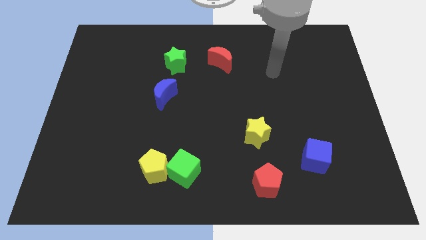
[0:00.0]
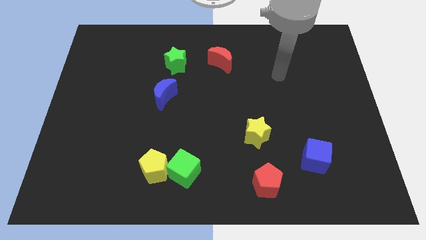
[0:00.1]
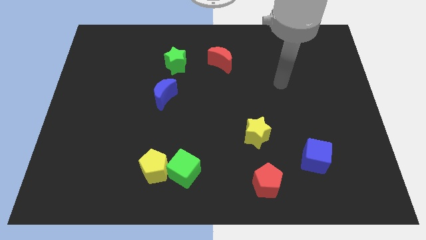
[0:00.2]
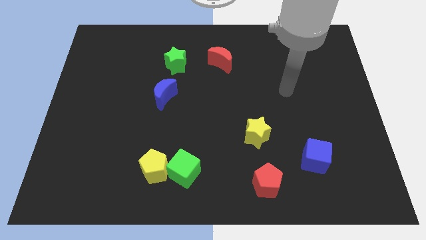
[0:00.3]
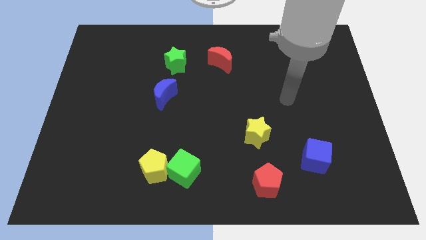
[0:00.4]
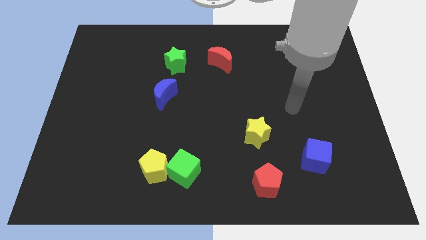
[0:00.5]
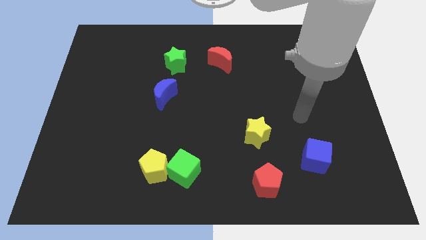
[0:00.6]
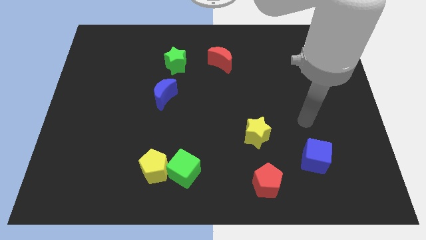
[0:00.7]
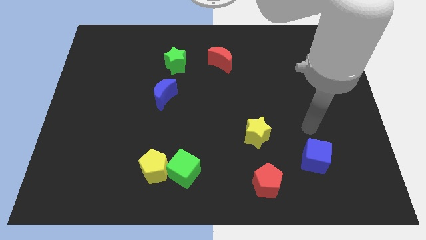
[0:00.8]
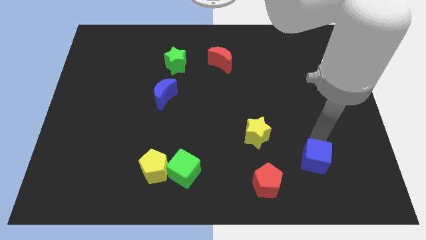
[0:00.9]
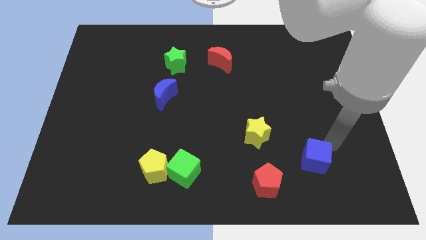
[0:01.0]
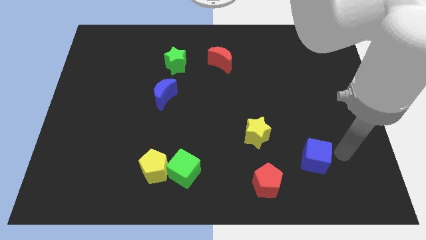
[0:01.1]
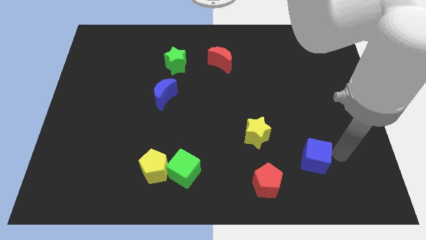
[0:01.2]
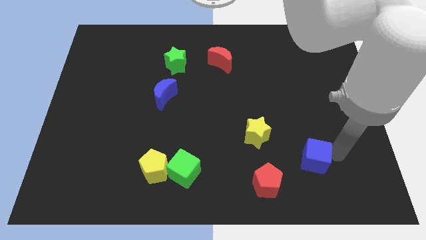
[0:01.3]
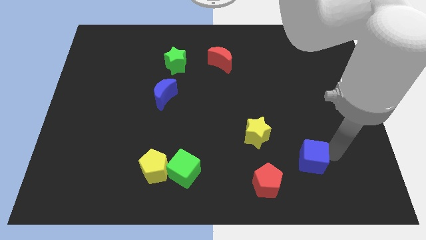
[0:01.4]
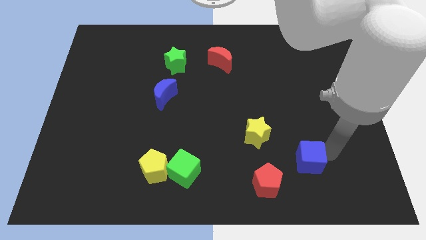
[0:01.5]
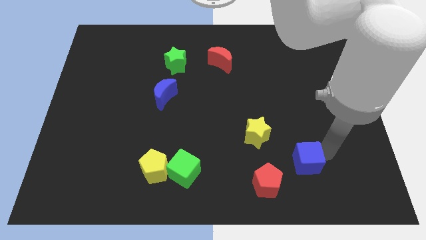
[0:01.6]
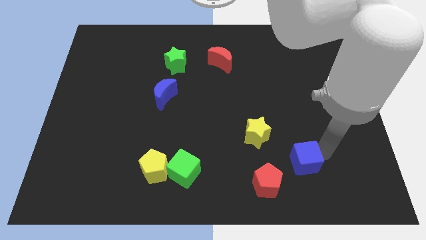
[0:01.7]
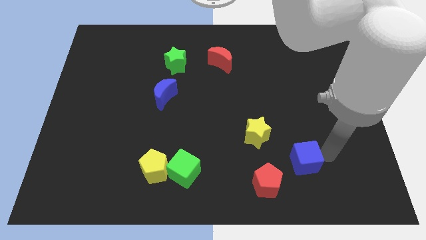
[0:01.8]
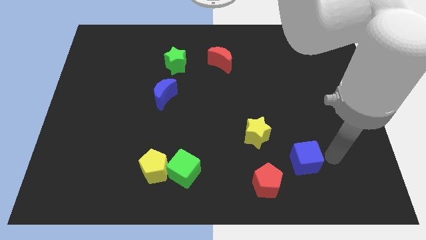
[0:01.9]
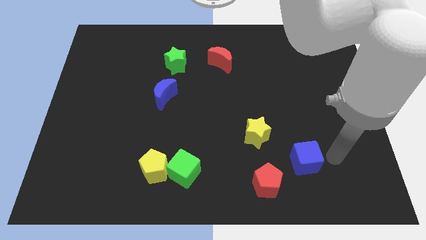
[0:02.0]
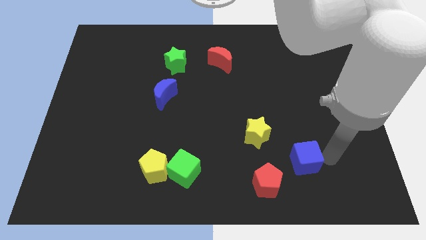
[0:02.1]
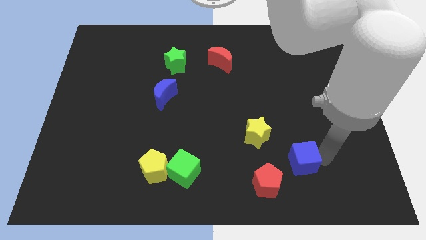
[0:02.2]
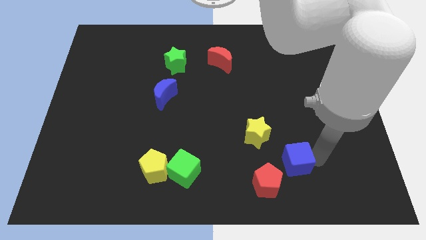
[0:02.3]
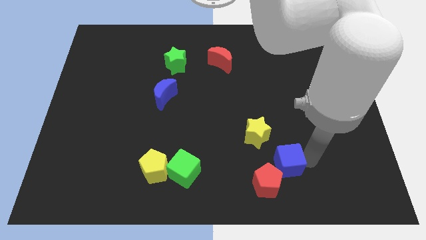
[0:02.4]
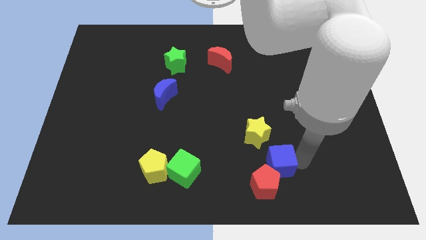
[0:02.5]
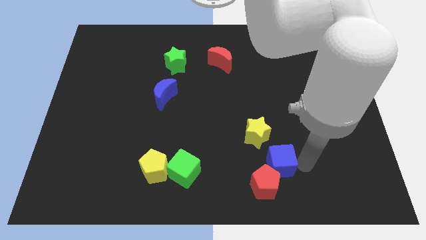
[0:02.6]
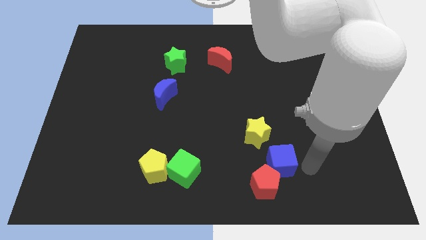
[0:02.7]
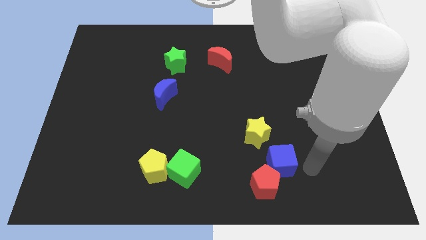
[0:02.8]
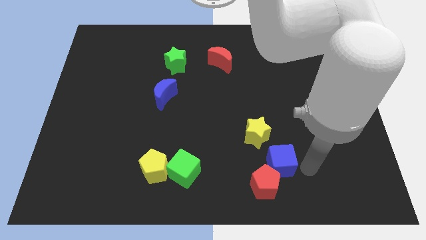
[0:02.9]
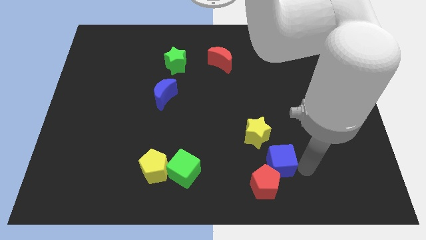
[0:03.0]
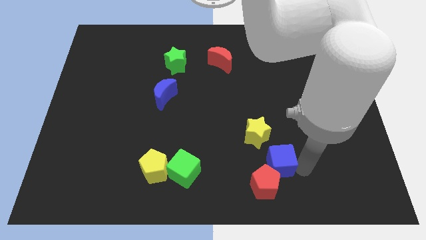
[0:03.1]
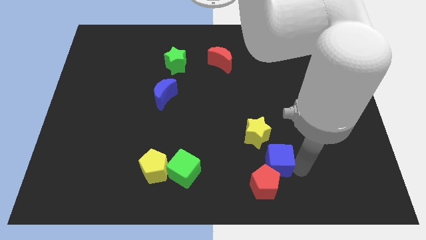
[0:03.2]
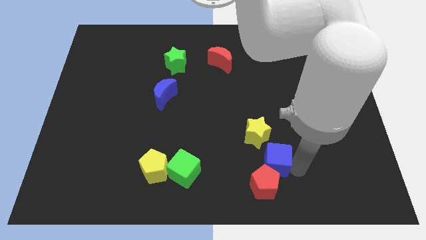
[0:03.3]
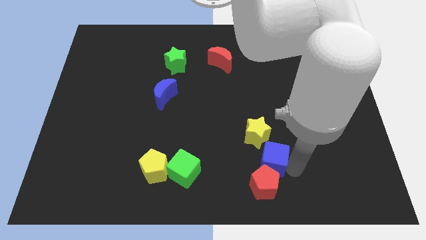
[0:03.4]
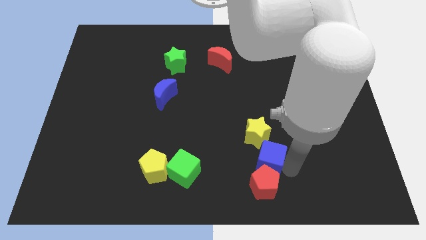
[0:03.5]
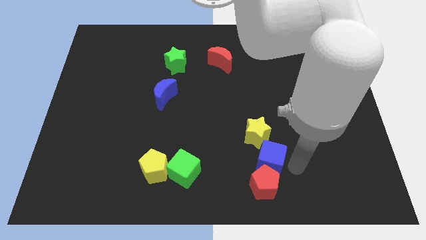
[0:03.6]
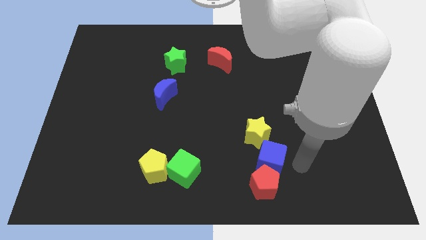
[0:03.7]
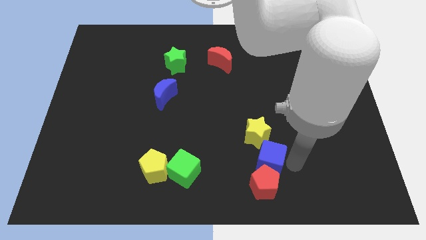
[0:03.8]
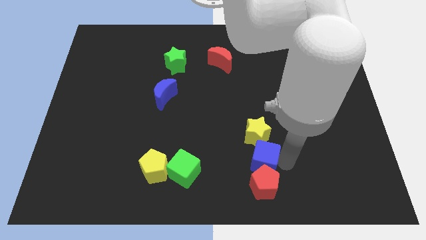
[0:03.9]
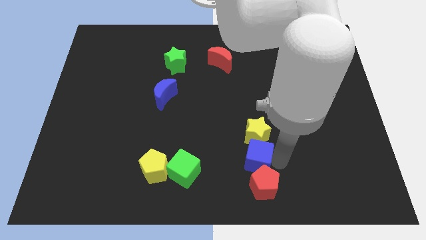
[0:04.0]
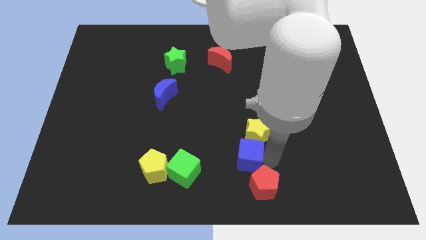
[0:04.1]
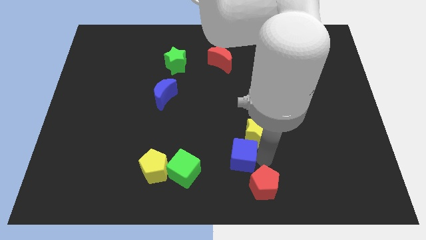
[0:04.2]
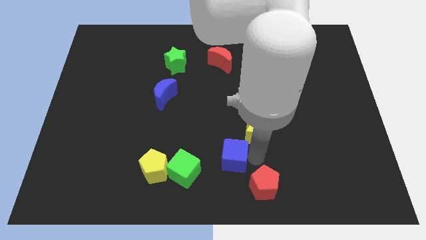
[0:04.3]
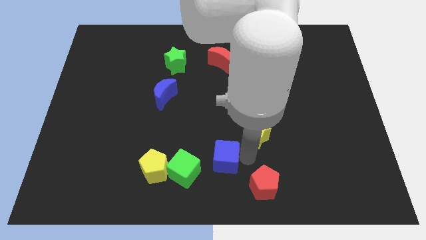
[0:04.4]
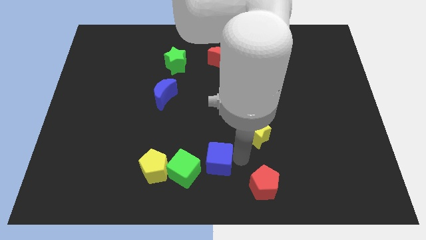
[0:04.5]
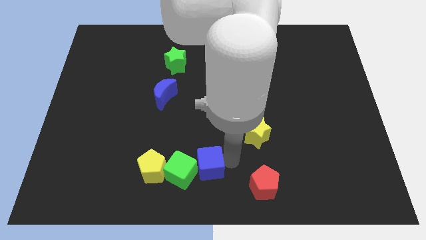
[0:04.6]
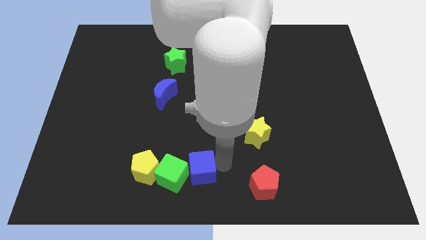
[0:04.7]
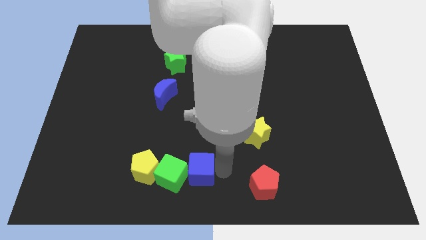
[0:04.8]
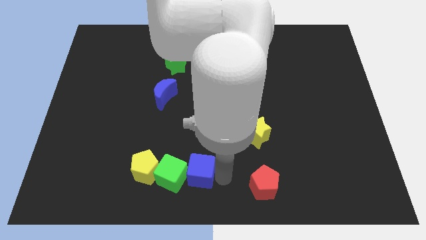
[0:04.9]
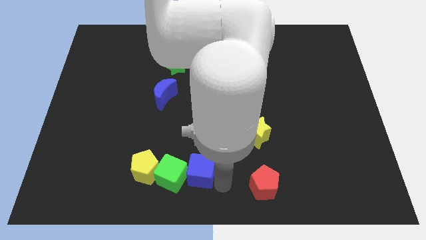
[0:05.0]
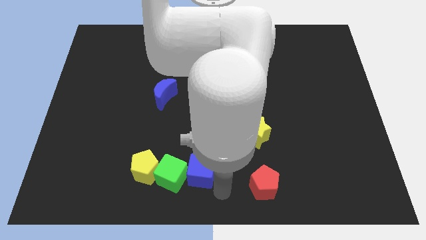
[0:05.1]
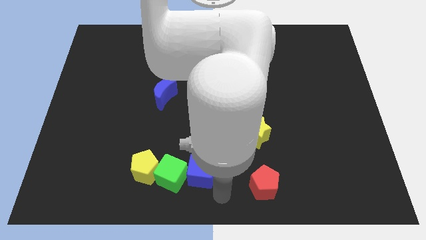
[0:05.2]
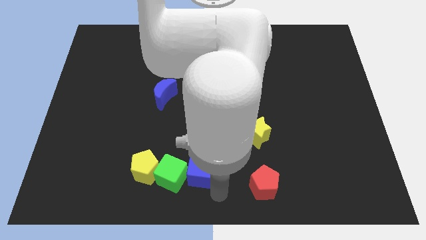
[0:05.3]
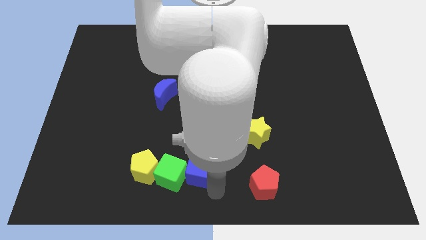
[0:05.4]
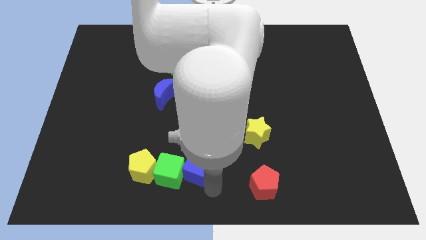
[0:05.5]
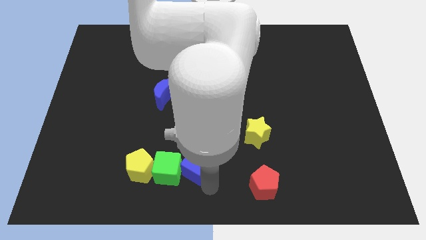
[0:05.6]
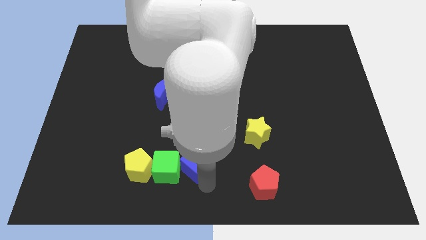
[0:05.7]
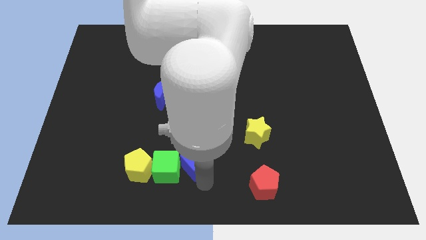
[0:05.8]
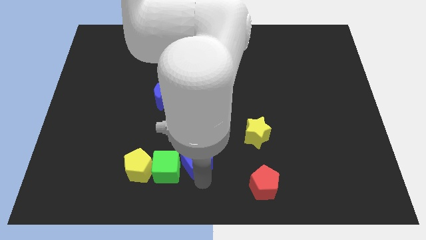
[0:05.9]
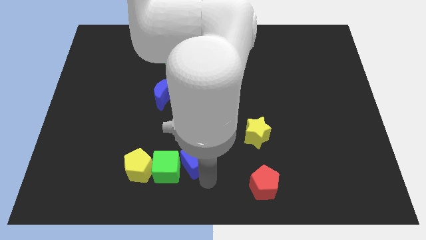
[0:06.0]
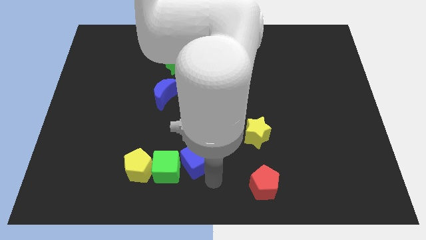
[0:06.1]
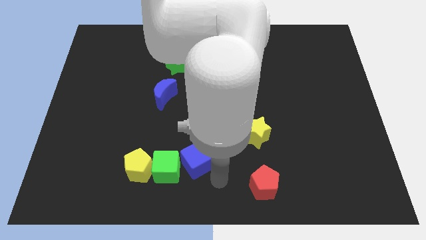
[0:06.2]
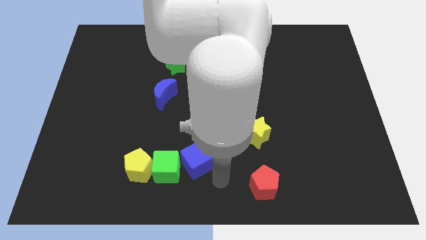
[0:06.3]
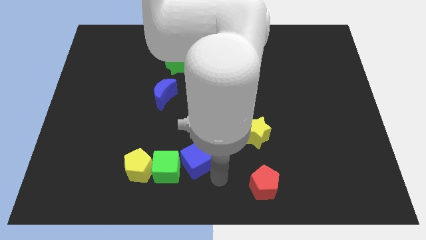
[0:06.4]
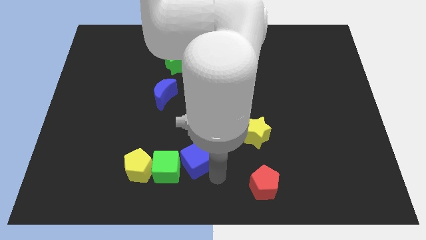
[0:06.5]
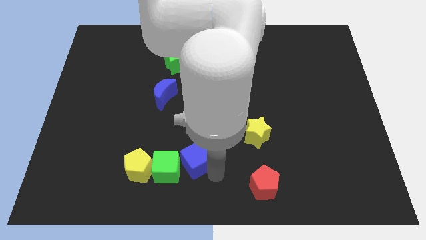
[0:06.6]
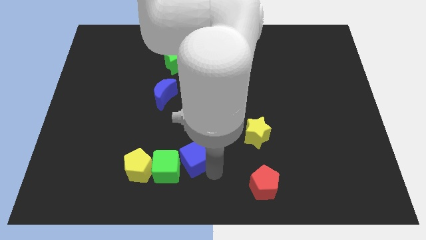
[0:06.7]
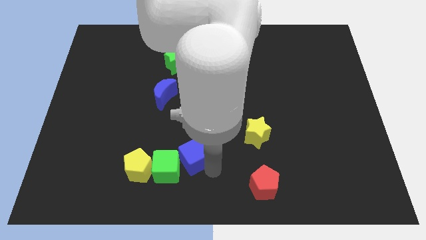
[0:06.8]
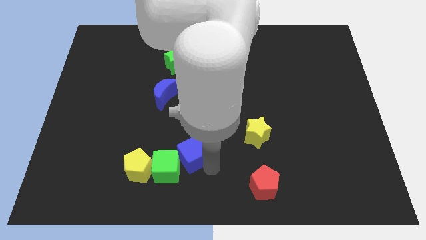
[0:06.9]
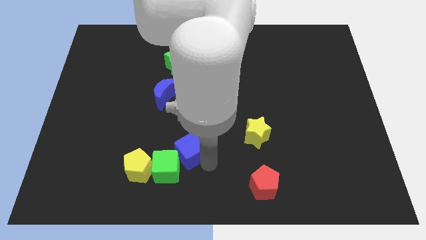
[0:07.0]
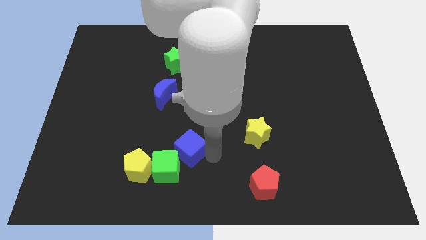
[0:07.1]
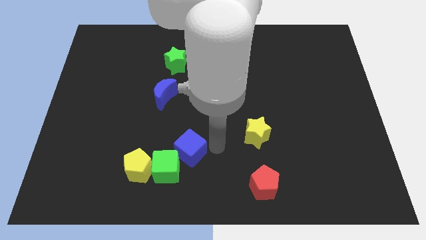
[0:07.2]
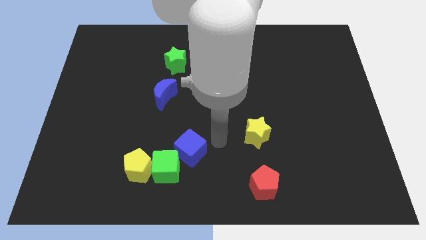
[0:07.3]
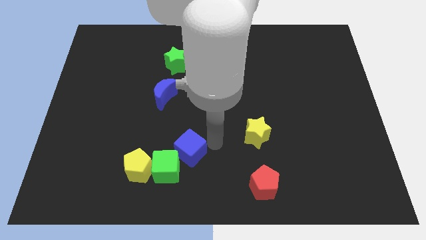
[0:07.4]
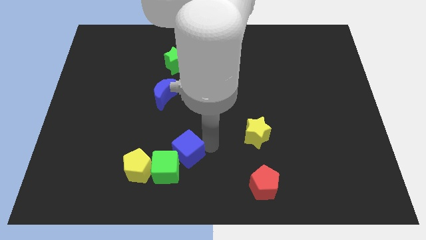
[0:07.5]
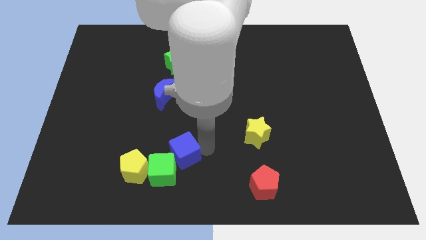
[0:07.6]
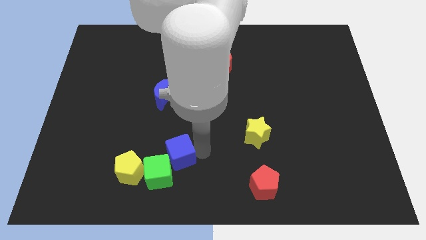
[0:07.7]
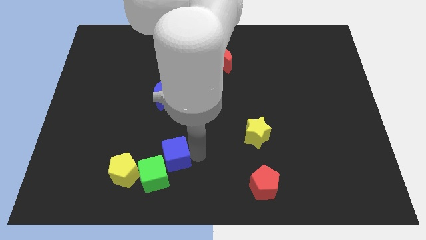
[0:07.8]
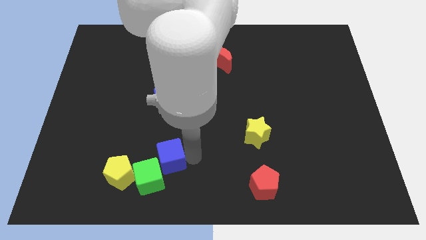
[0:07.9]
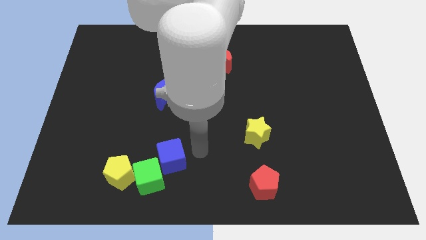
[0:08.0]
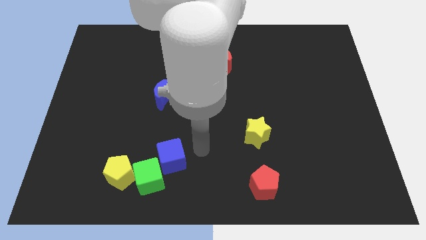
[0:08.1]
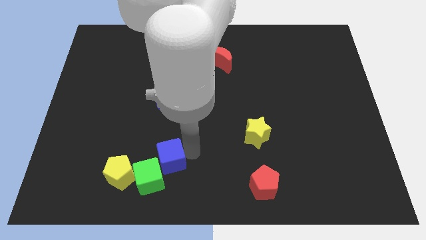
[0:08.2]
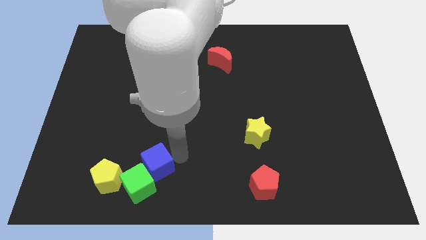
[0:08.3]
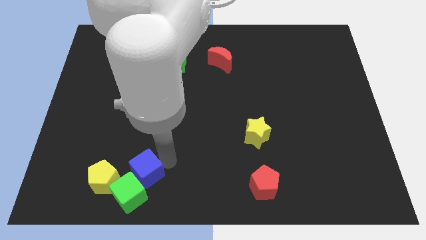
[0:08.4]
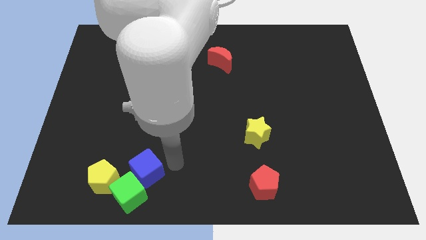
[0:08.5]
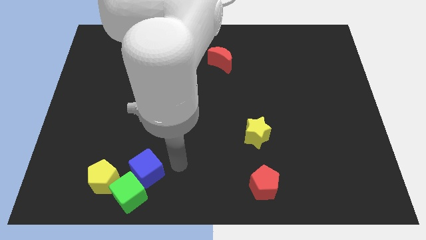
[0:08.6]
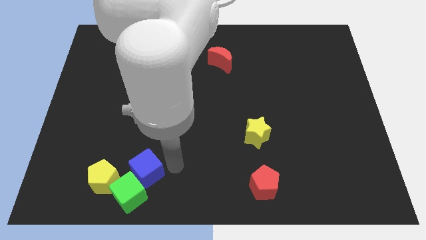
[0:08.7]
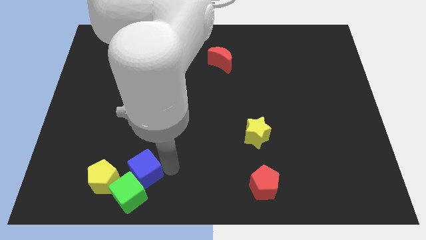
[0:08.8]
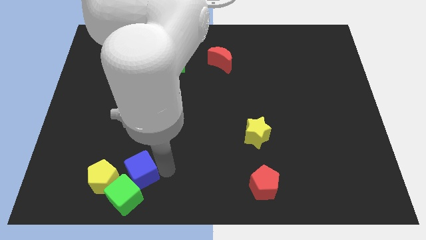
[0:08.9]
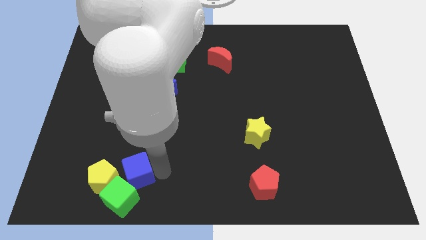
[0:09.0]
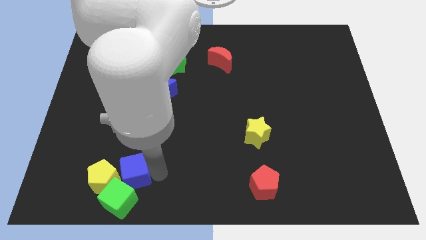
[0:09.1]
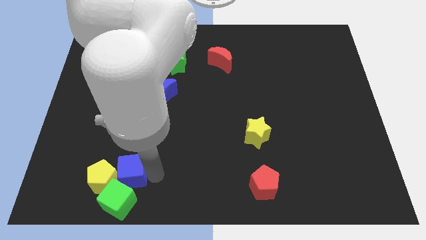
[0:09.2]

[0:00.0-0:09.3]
slide the blue cube to the yellow pentagon
